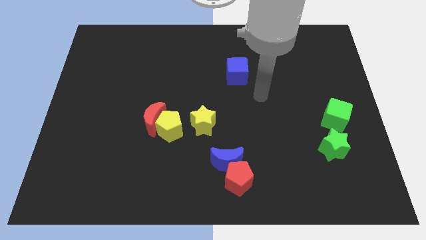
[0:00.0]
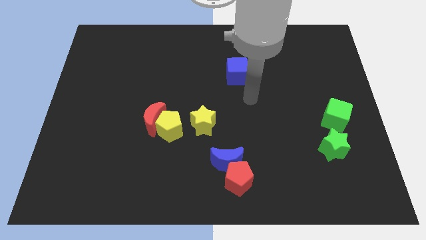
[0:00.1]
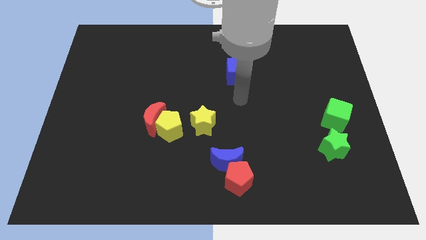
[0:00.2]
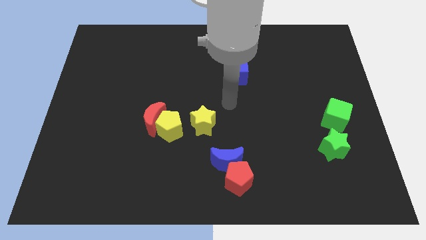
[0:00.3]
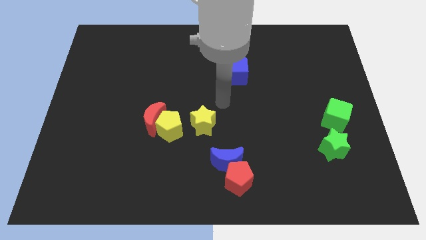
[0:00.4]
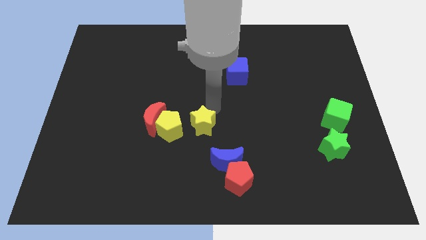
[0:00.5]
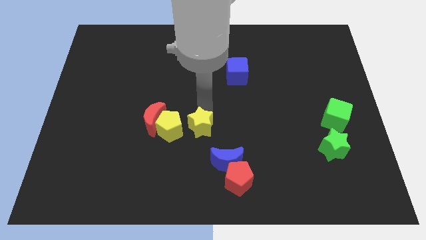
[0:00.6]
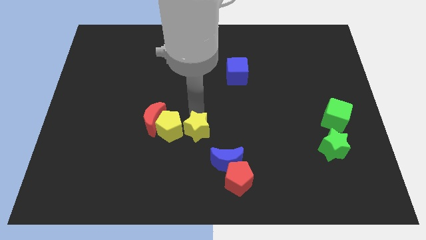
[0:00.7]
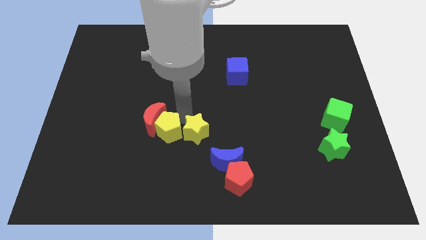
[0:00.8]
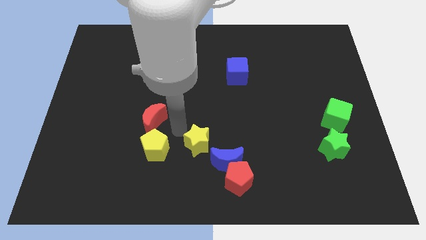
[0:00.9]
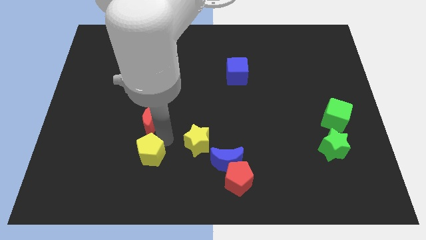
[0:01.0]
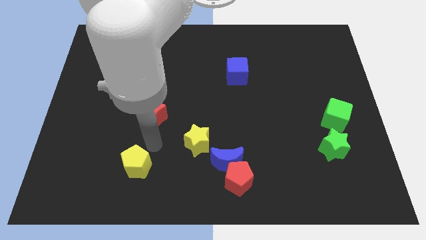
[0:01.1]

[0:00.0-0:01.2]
separate the red moon from the yellow pentagon

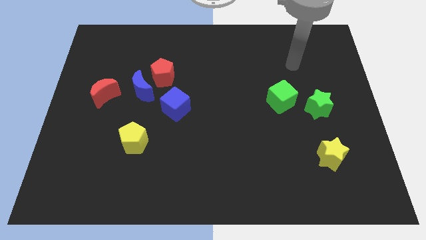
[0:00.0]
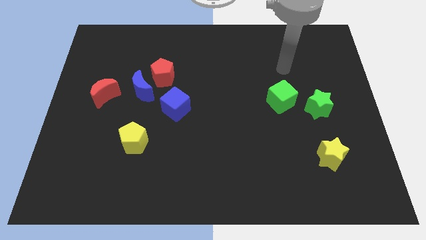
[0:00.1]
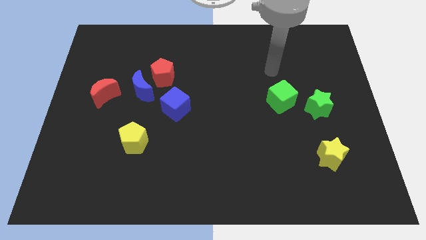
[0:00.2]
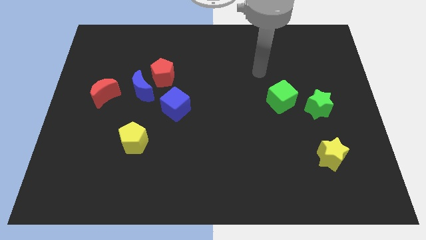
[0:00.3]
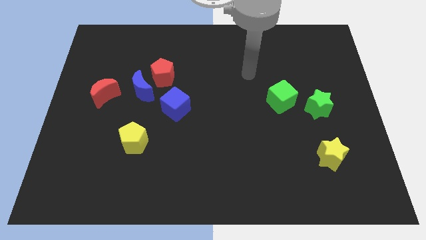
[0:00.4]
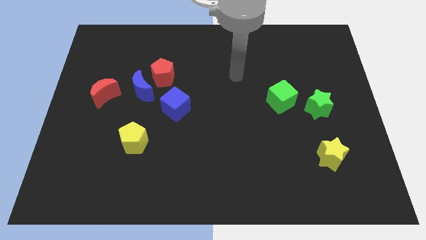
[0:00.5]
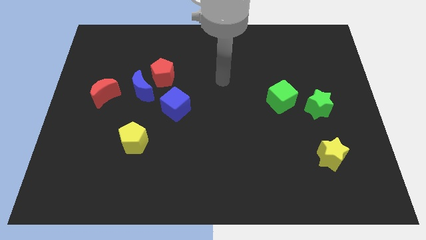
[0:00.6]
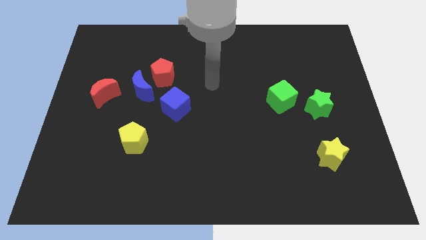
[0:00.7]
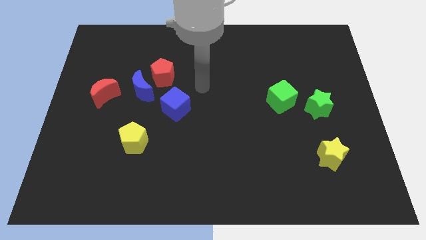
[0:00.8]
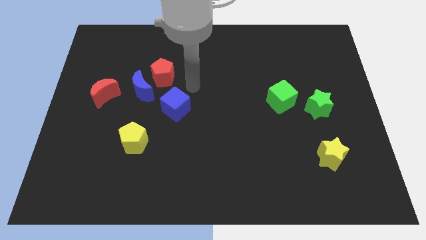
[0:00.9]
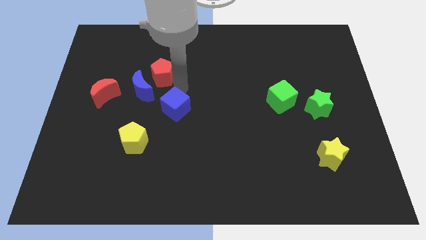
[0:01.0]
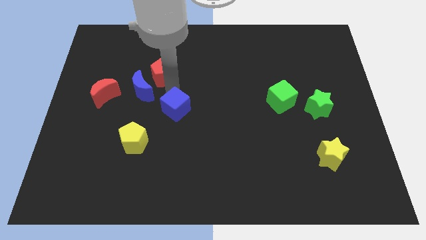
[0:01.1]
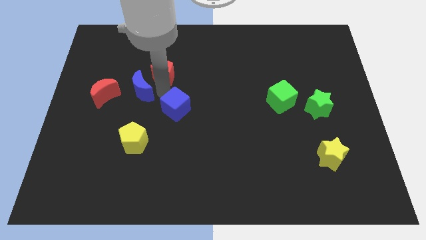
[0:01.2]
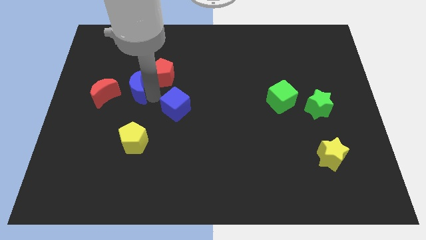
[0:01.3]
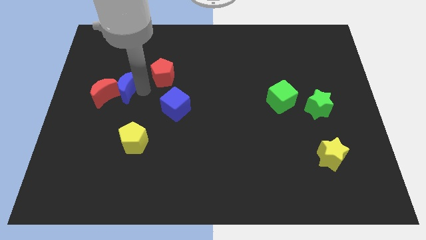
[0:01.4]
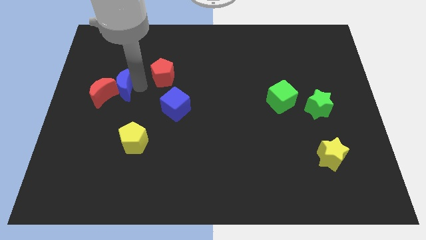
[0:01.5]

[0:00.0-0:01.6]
move the red pentagon away from the blue moon

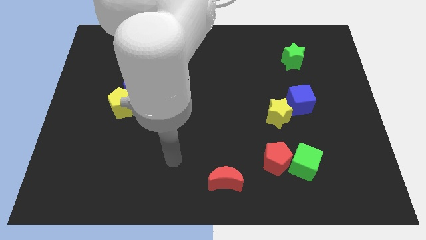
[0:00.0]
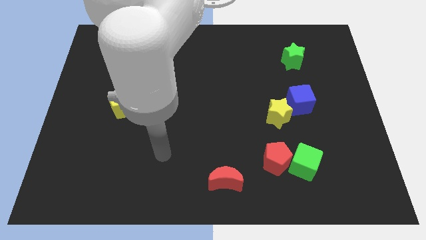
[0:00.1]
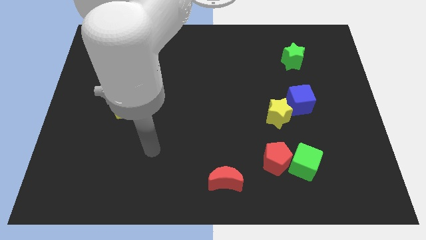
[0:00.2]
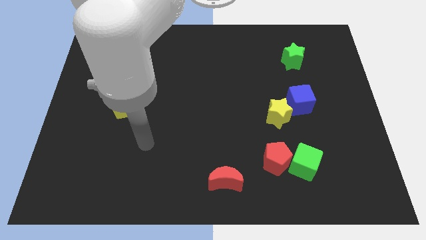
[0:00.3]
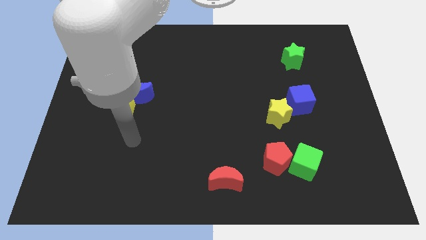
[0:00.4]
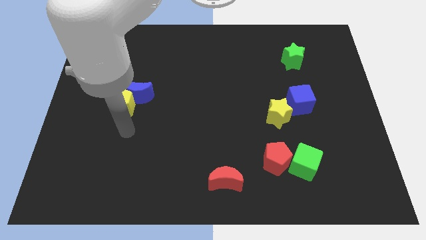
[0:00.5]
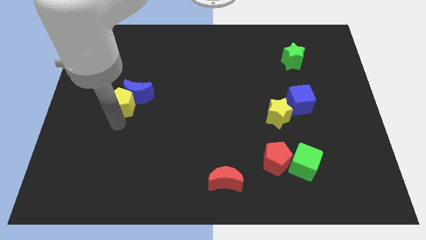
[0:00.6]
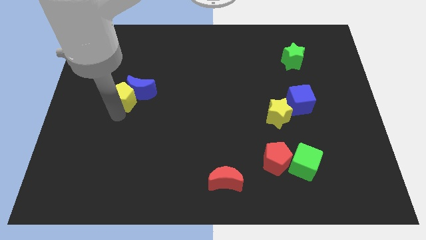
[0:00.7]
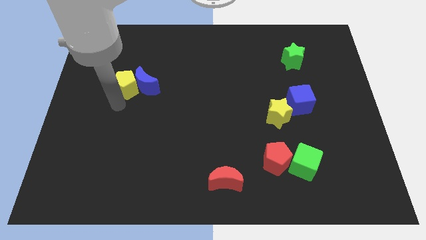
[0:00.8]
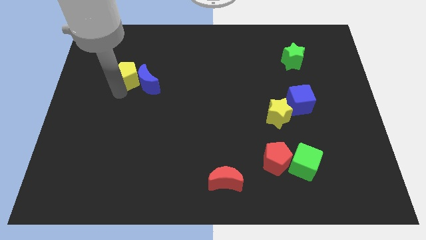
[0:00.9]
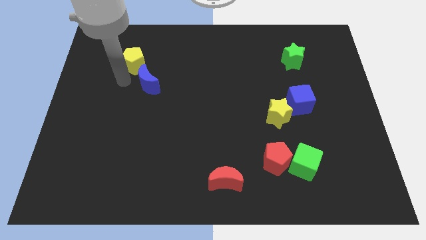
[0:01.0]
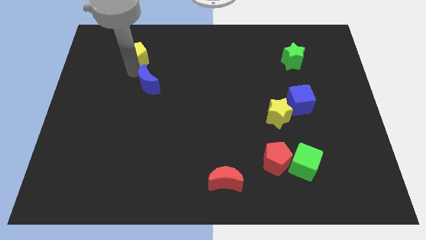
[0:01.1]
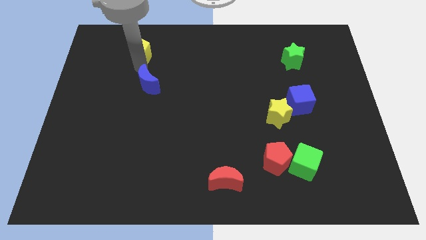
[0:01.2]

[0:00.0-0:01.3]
move the blue moon away from the yellow pentagon

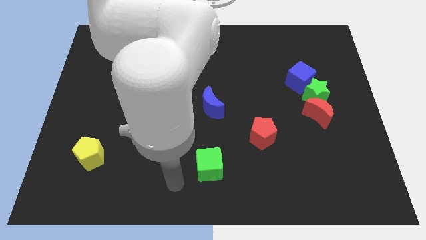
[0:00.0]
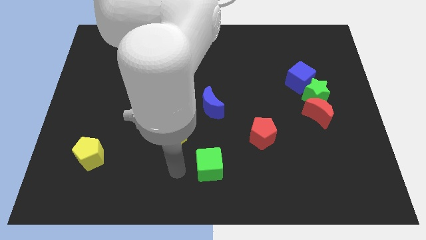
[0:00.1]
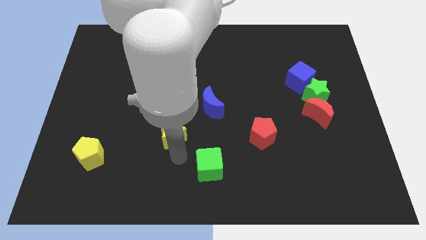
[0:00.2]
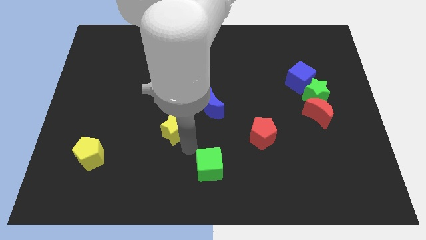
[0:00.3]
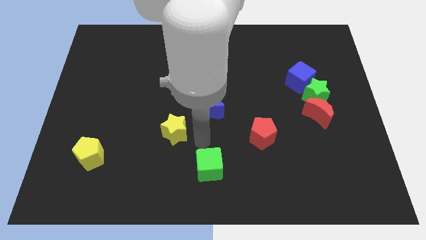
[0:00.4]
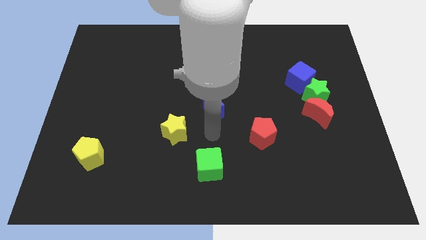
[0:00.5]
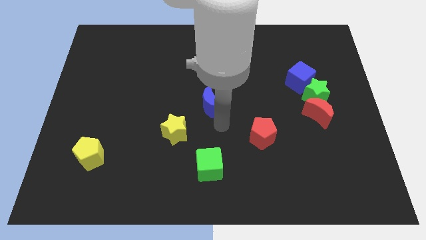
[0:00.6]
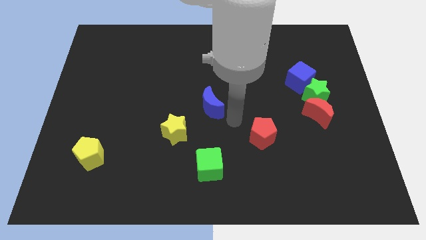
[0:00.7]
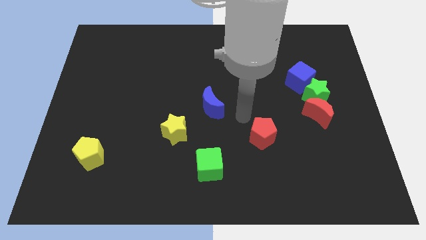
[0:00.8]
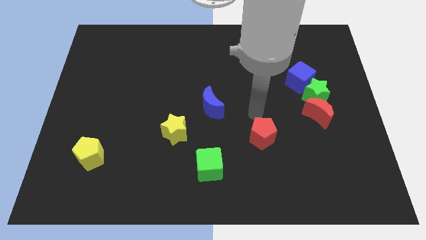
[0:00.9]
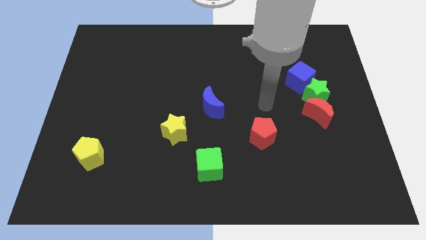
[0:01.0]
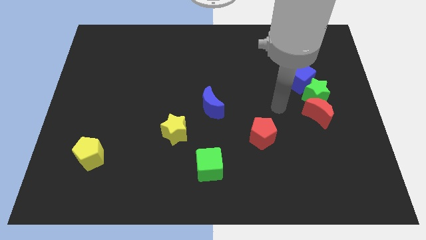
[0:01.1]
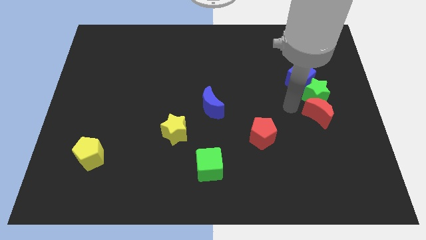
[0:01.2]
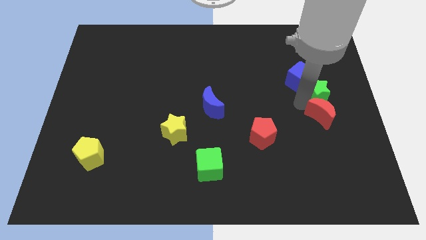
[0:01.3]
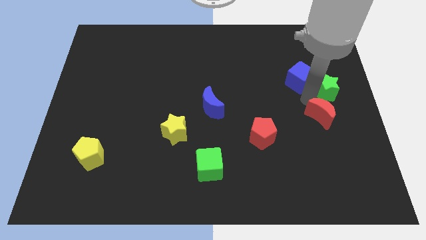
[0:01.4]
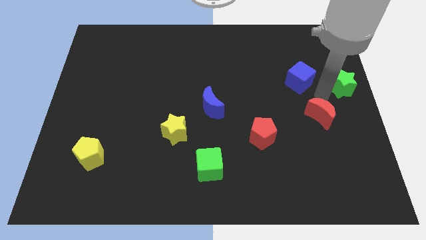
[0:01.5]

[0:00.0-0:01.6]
pull the red moon apart from the green star

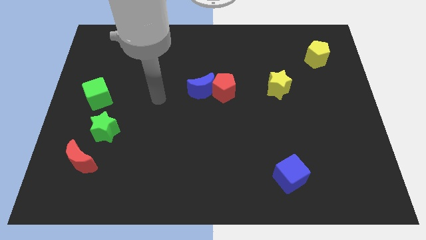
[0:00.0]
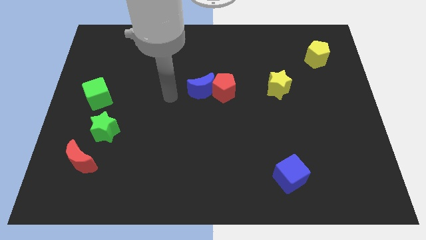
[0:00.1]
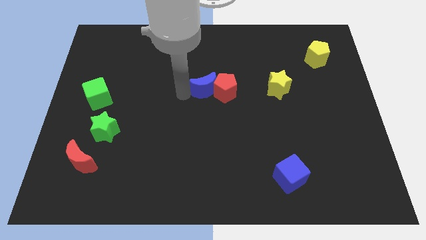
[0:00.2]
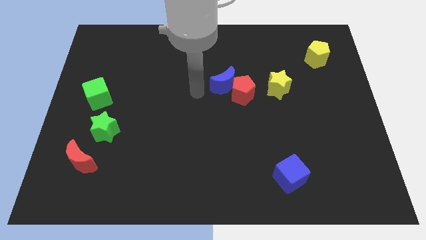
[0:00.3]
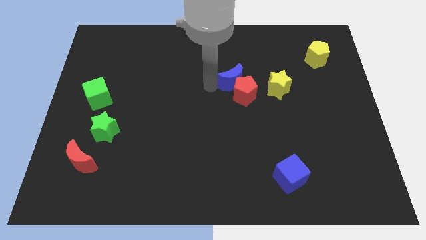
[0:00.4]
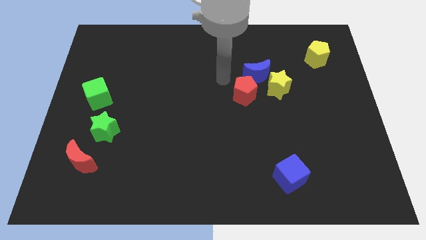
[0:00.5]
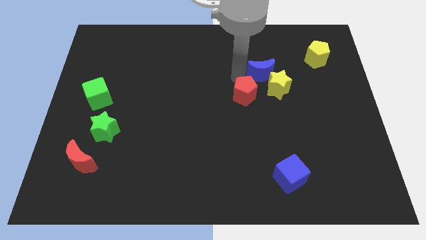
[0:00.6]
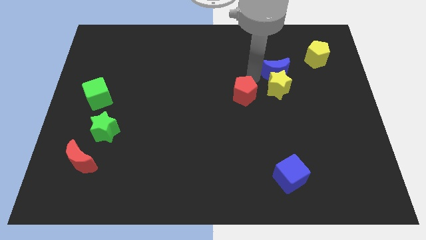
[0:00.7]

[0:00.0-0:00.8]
pull the red pentagon apart from the blue moon

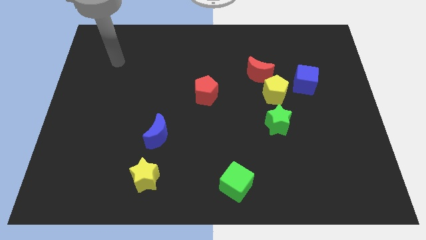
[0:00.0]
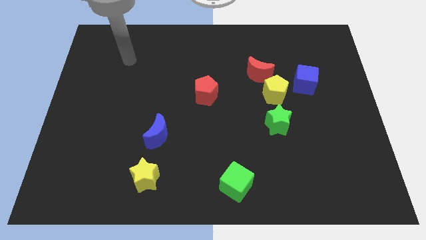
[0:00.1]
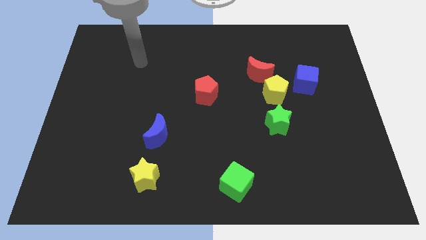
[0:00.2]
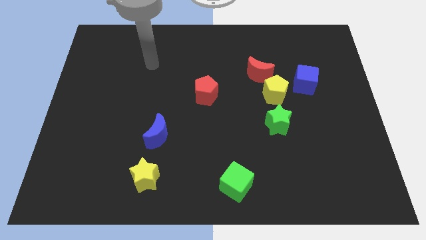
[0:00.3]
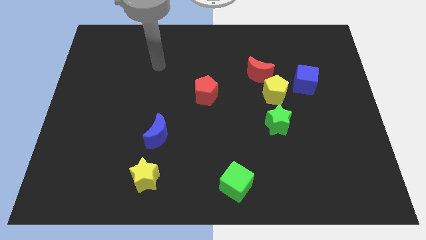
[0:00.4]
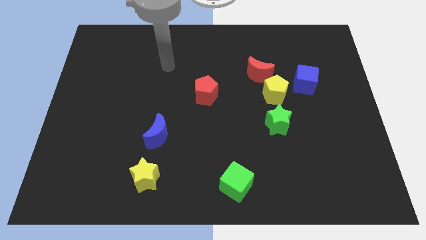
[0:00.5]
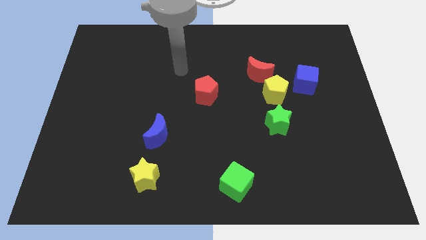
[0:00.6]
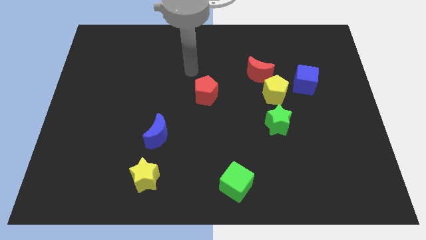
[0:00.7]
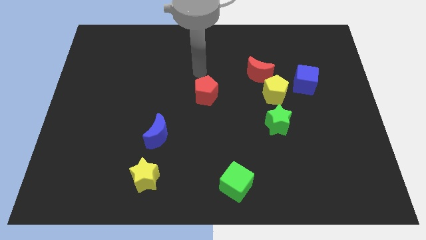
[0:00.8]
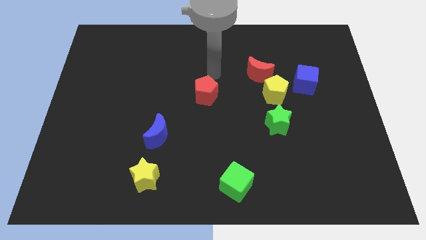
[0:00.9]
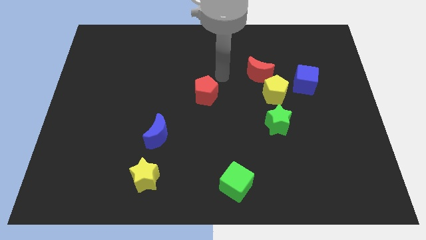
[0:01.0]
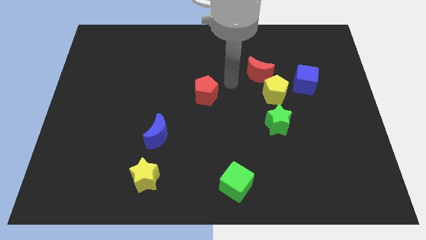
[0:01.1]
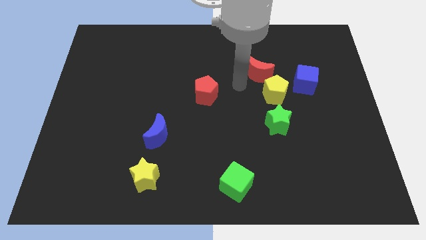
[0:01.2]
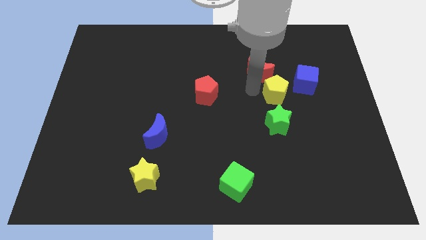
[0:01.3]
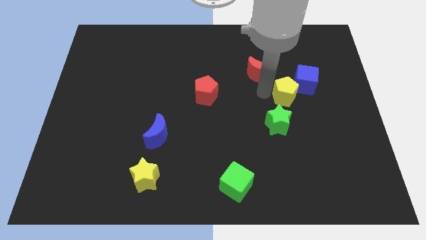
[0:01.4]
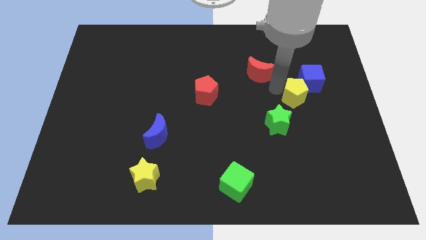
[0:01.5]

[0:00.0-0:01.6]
pull the red moon apart from the yellow pentagon

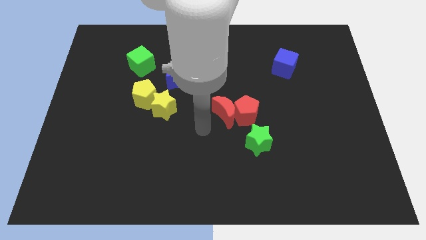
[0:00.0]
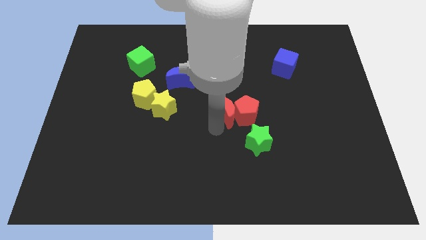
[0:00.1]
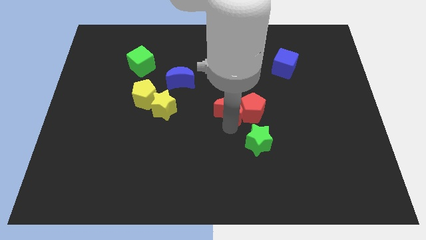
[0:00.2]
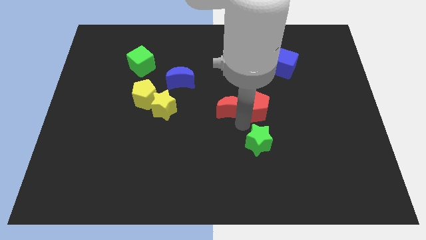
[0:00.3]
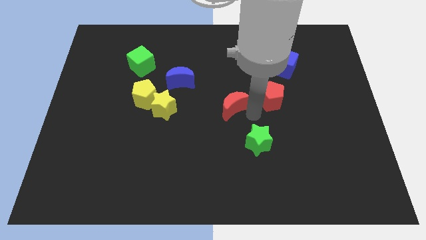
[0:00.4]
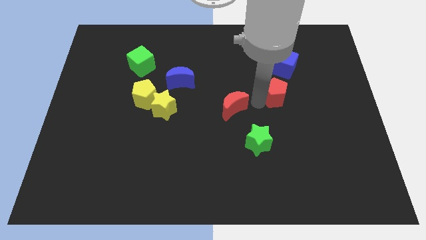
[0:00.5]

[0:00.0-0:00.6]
separate the red moon from the red pentagon

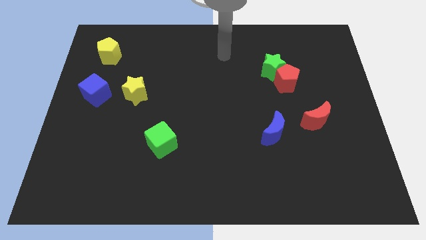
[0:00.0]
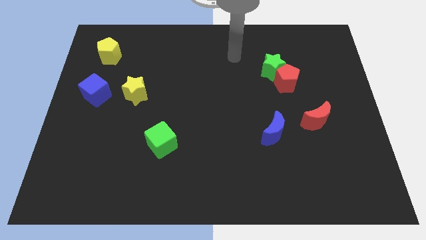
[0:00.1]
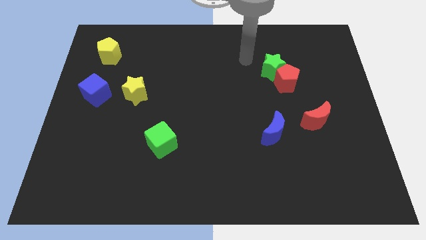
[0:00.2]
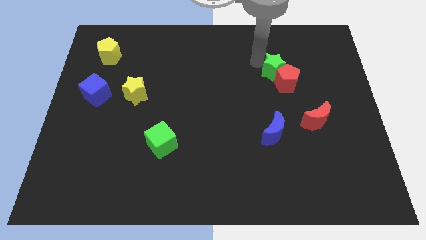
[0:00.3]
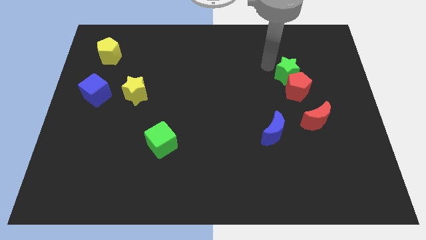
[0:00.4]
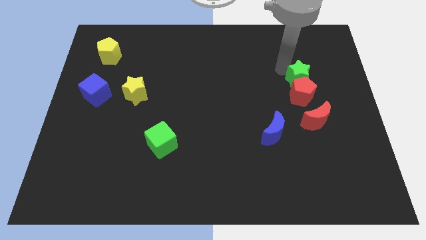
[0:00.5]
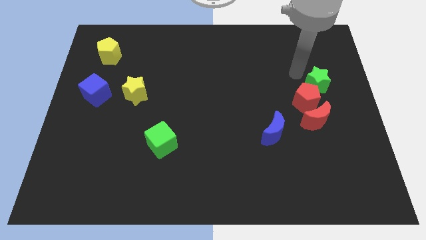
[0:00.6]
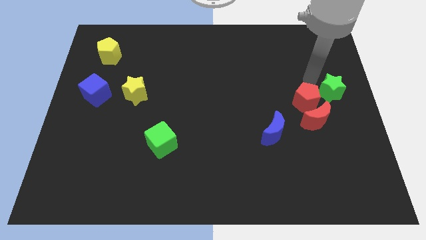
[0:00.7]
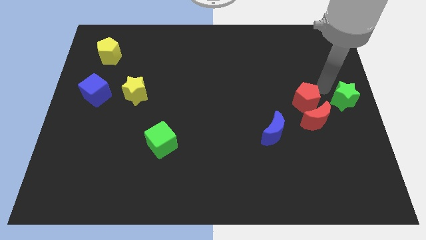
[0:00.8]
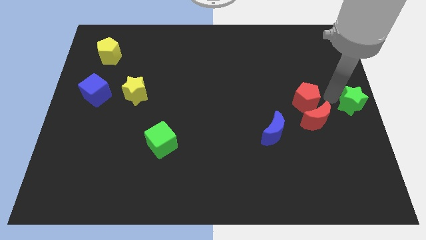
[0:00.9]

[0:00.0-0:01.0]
move the red pentagon away from the green star
